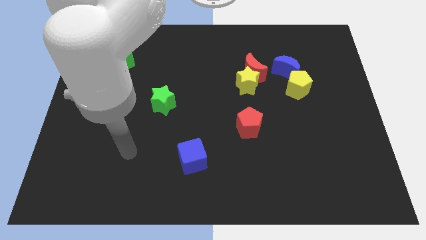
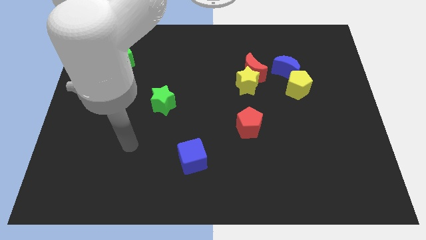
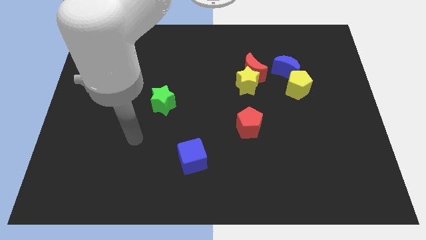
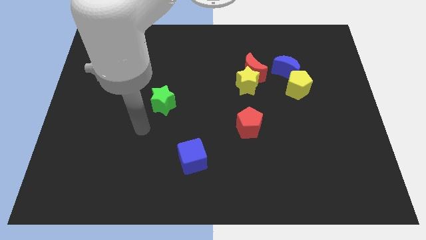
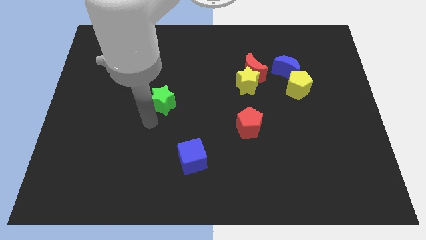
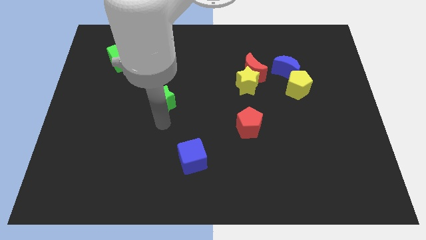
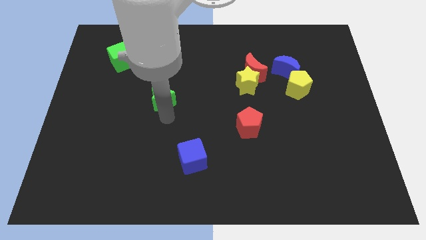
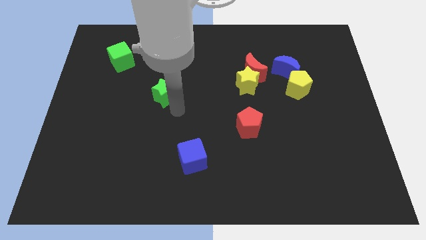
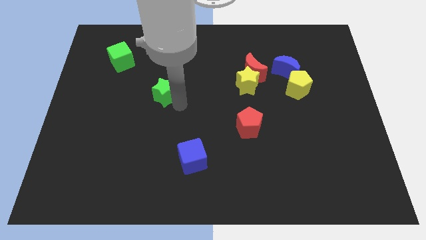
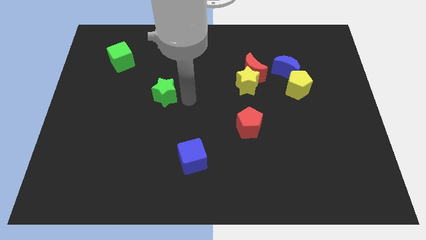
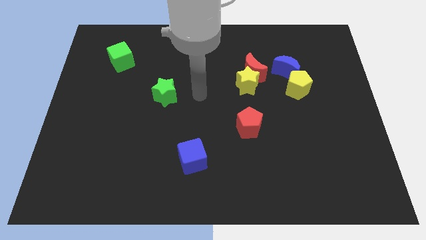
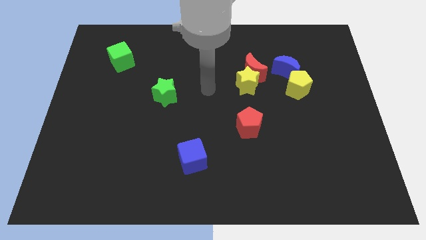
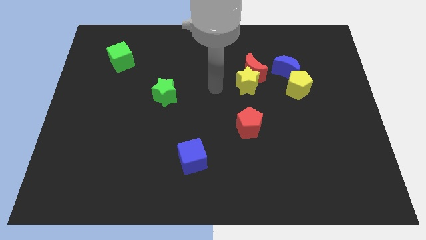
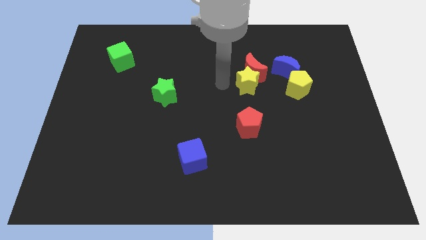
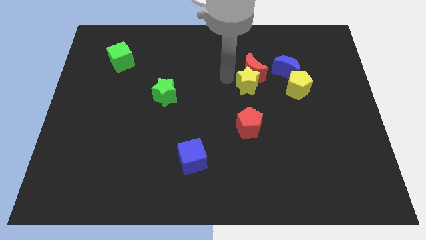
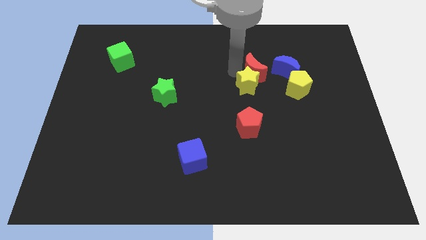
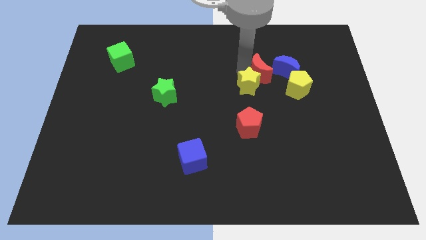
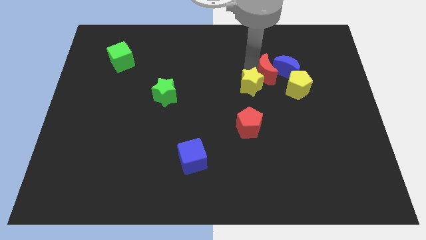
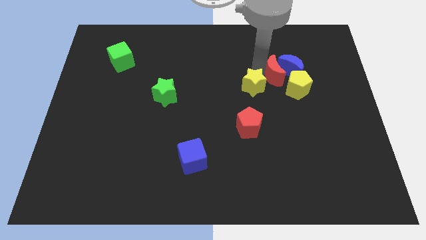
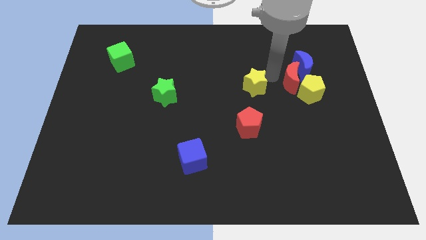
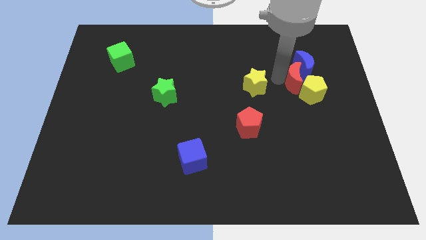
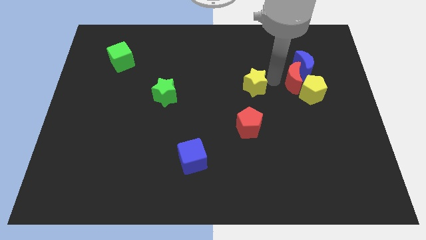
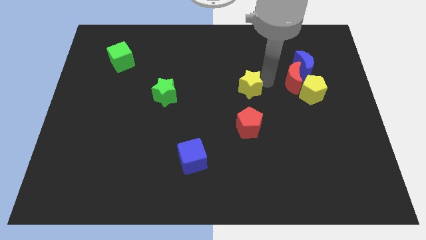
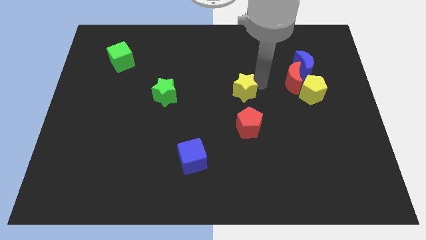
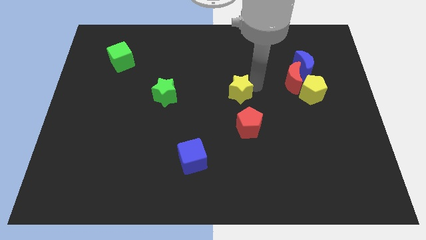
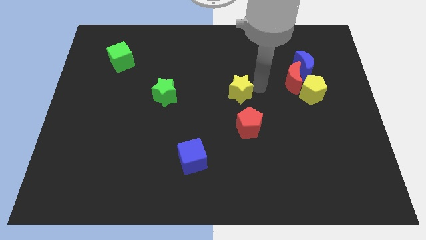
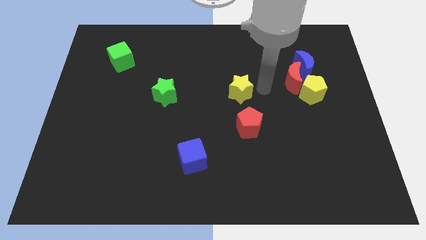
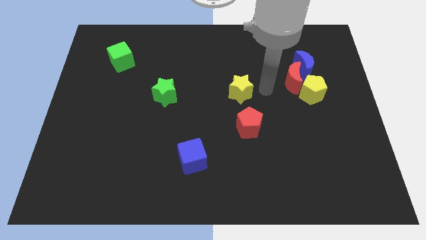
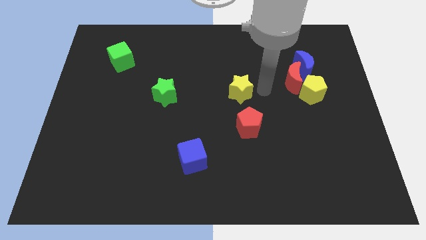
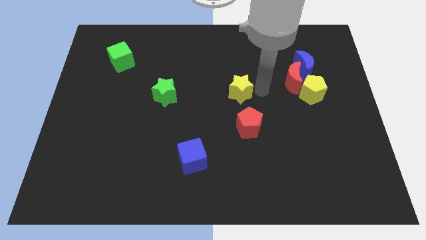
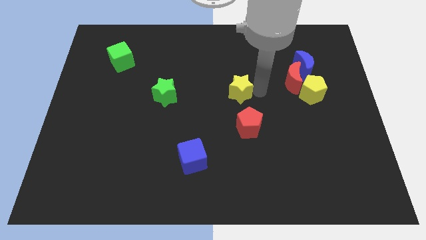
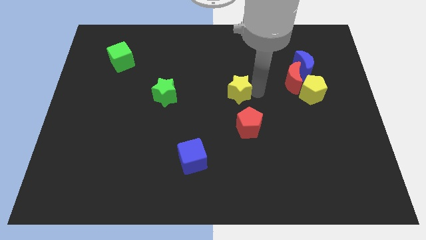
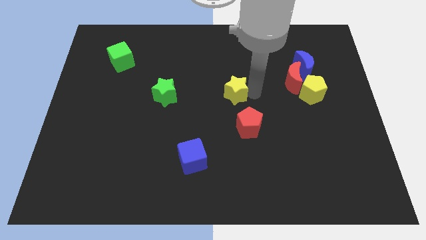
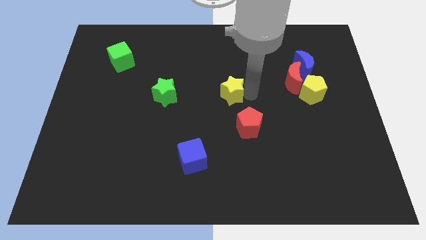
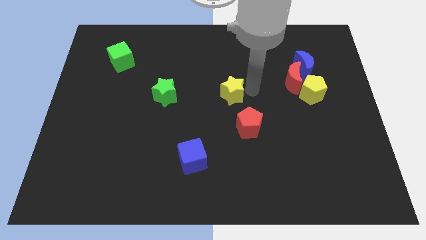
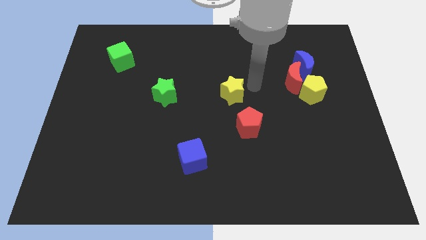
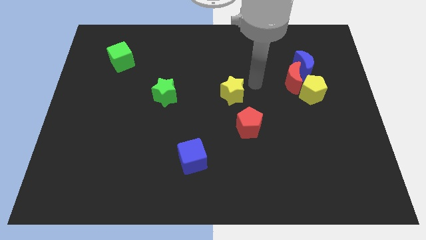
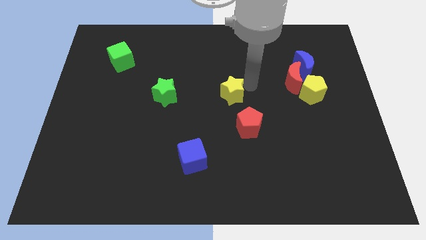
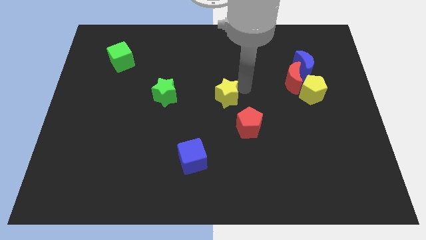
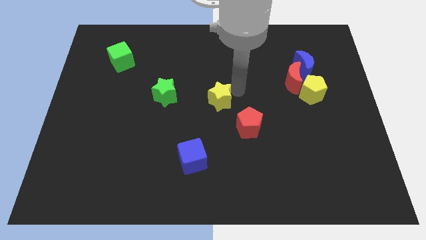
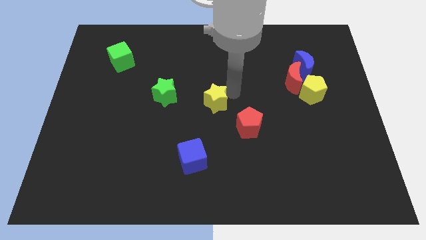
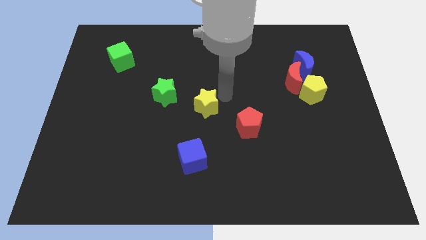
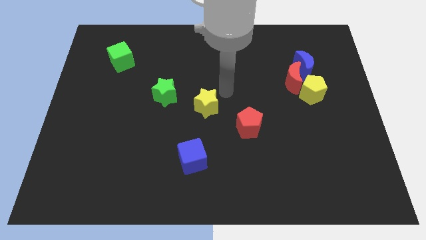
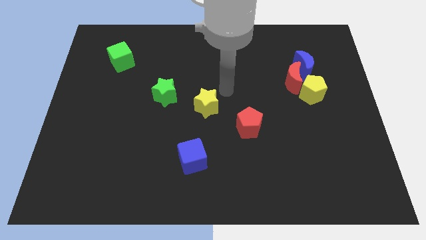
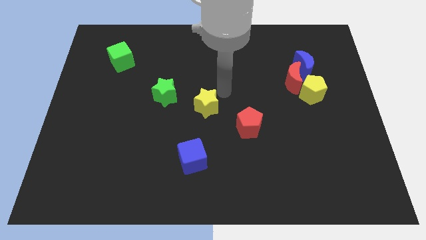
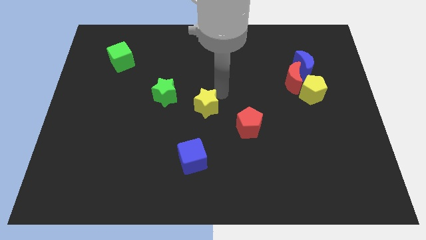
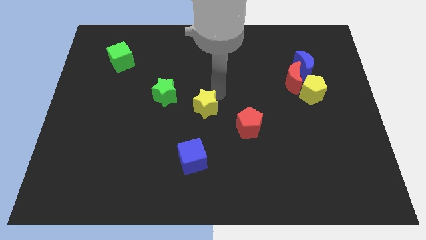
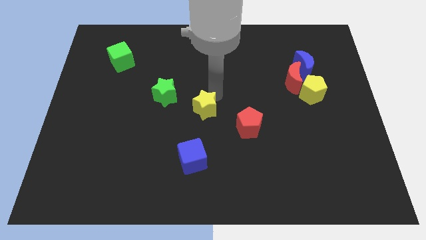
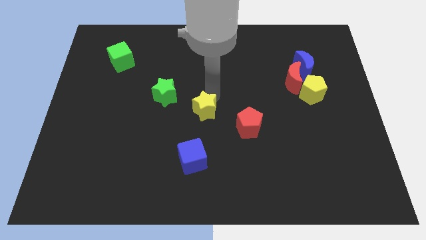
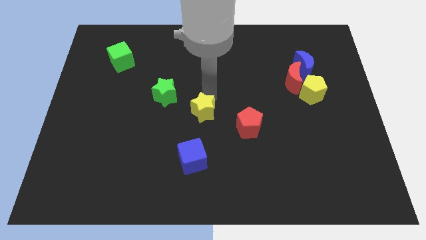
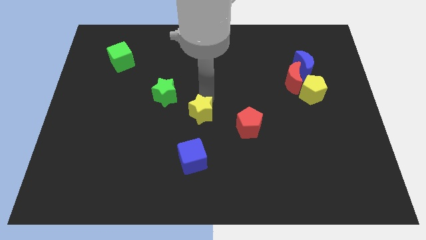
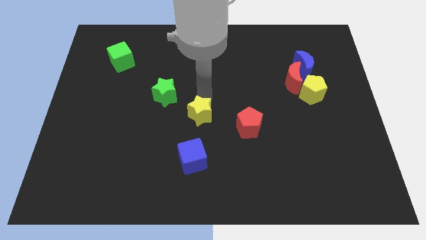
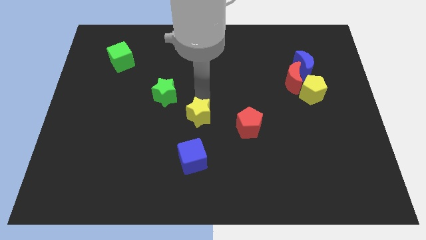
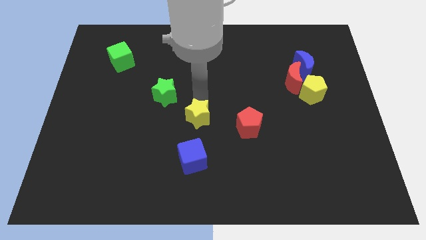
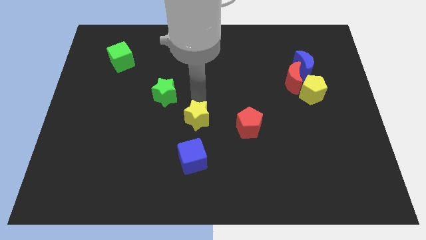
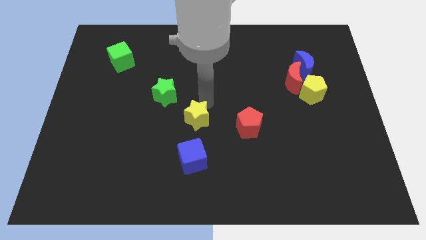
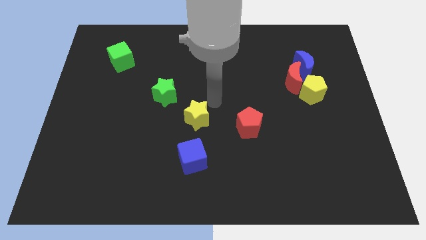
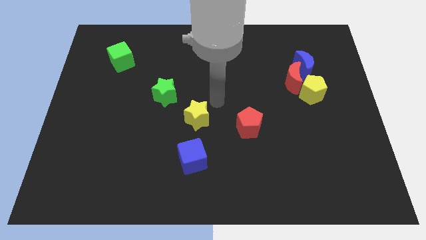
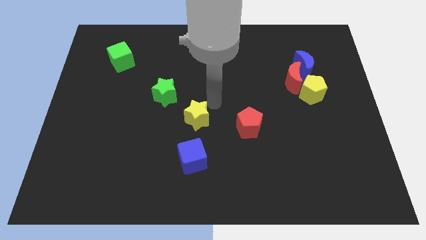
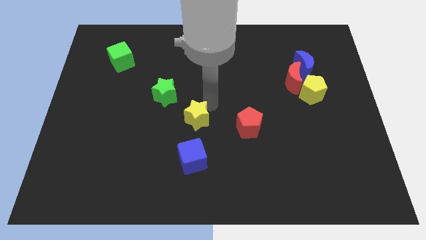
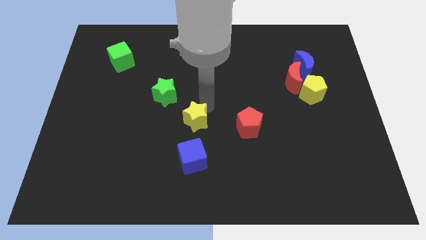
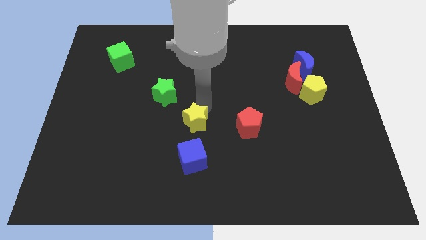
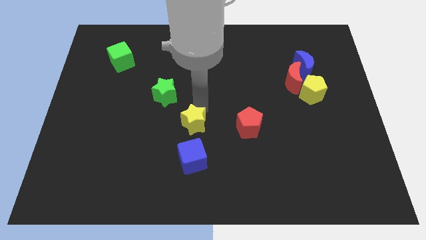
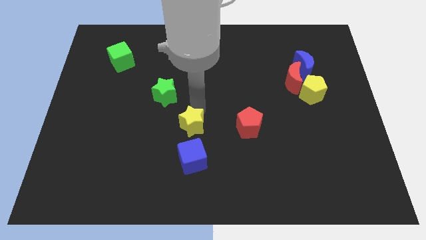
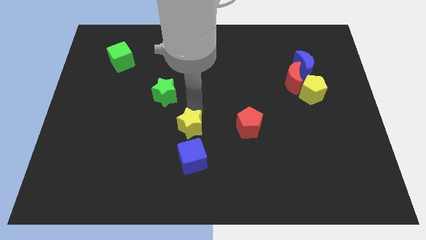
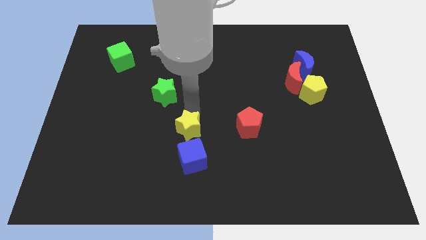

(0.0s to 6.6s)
move the yellow star to the top left of the blue cube
